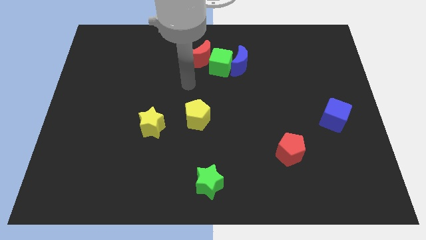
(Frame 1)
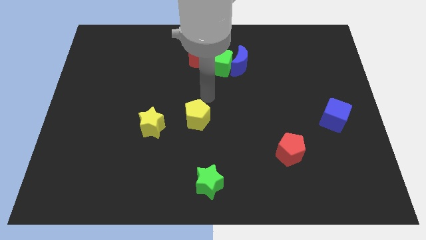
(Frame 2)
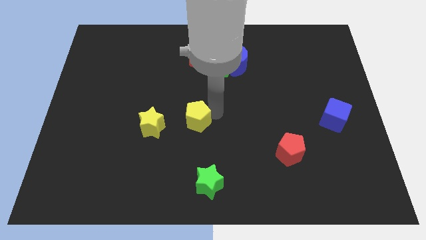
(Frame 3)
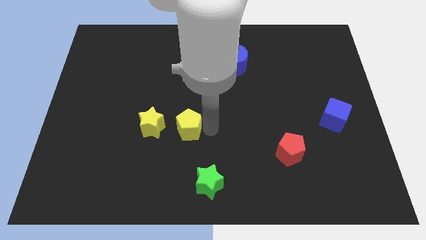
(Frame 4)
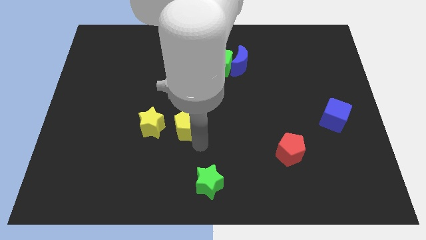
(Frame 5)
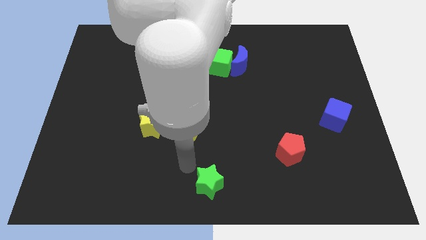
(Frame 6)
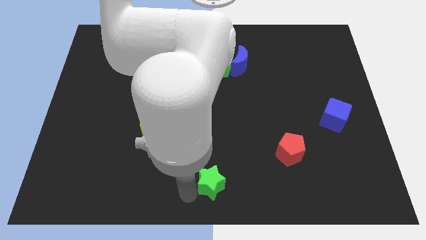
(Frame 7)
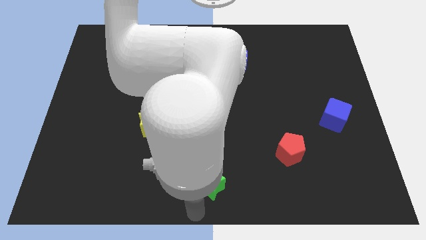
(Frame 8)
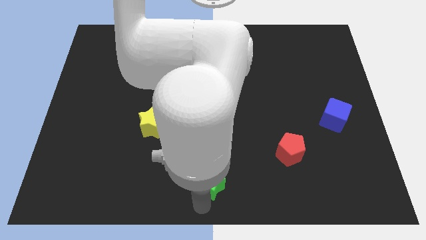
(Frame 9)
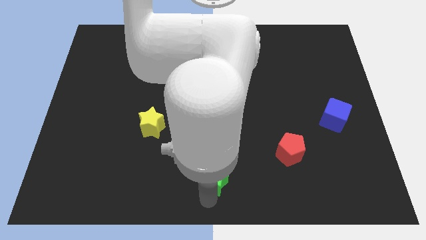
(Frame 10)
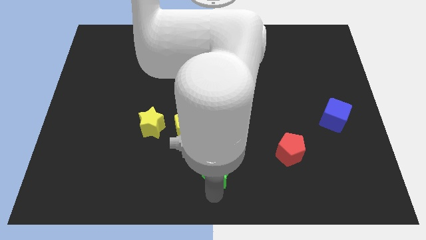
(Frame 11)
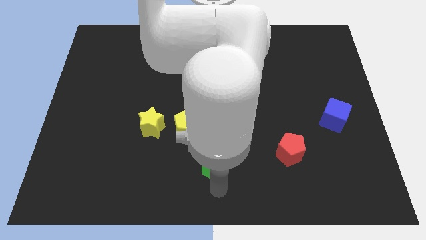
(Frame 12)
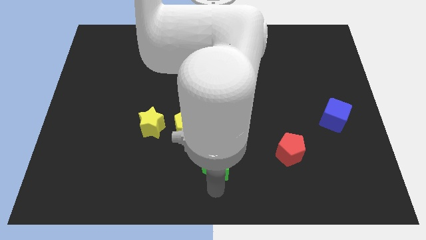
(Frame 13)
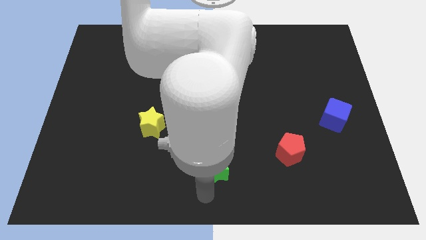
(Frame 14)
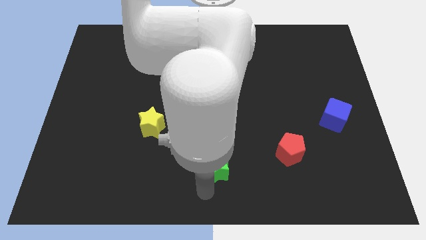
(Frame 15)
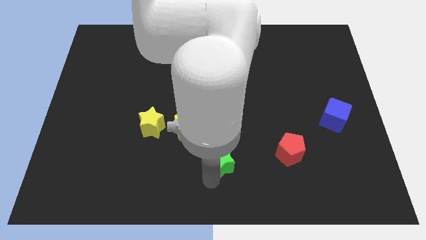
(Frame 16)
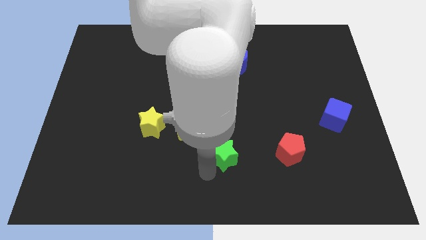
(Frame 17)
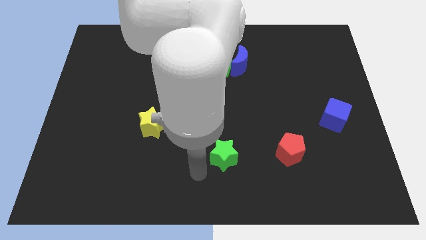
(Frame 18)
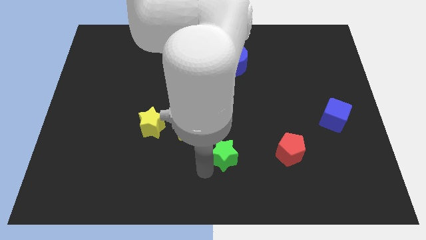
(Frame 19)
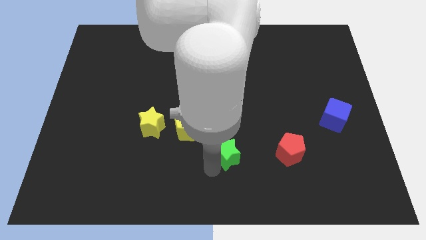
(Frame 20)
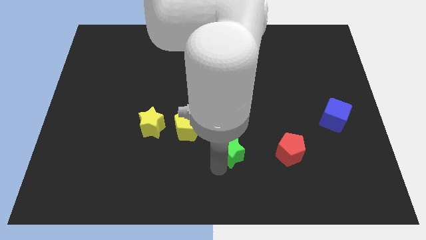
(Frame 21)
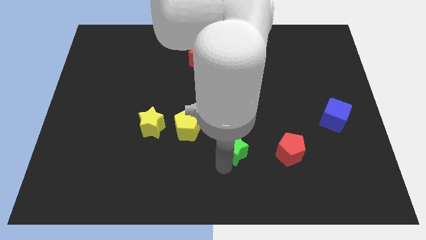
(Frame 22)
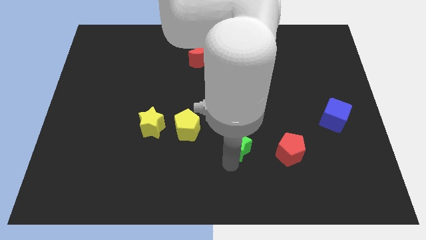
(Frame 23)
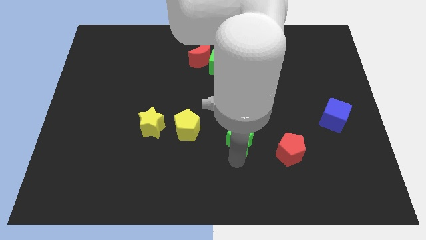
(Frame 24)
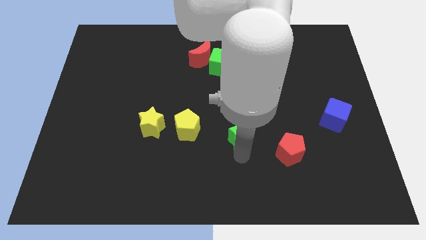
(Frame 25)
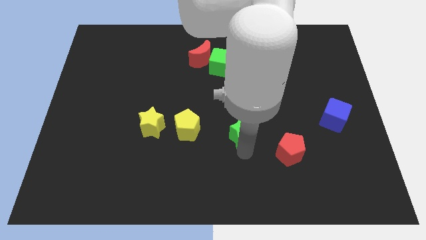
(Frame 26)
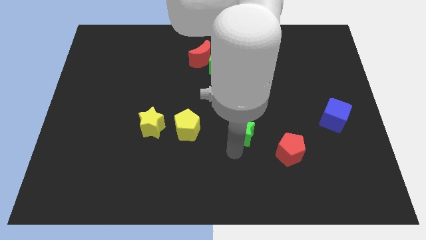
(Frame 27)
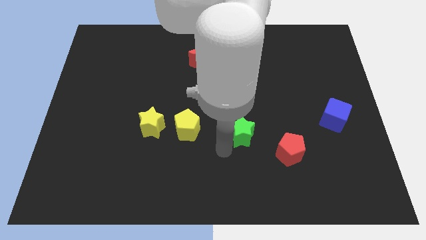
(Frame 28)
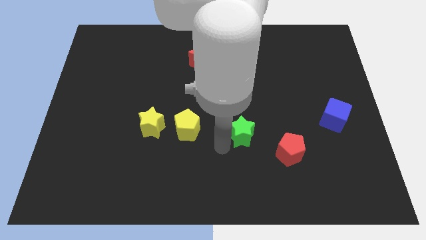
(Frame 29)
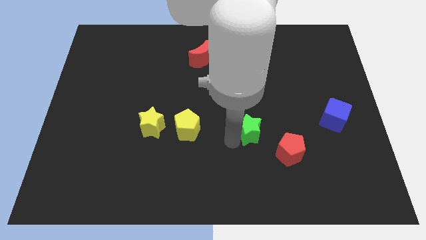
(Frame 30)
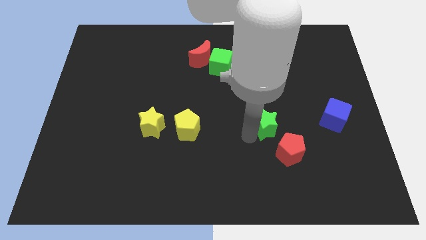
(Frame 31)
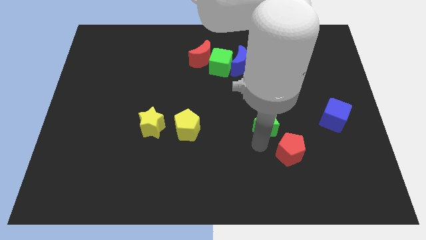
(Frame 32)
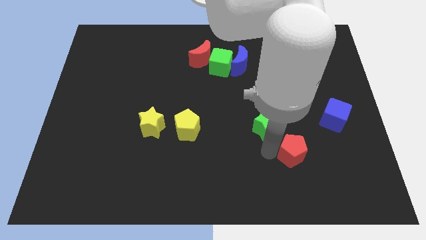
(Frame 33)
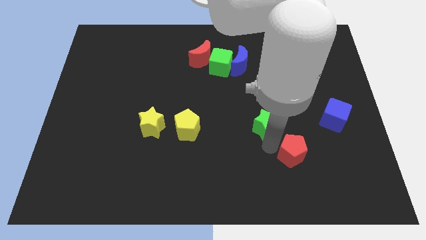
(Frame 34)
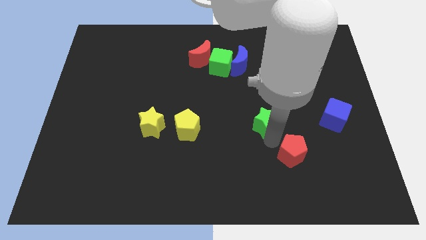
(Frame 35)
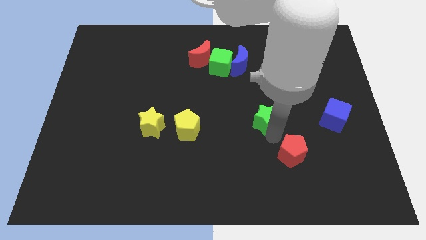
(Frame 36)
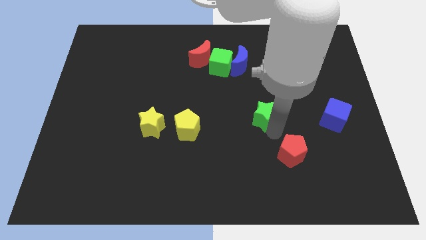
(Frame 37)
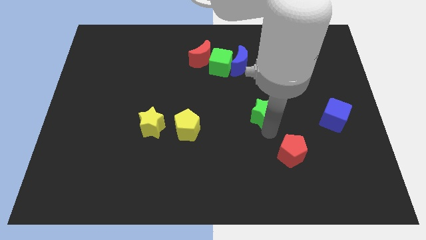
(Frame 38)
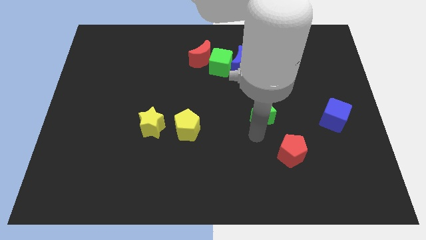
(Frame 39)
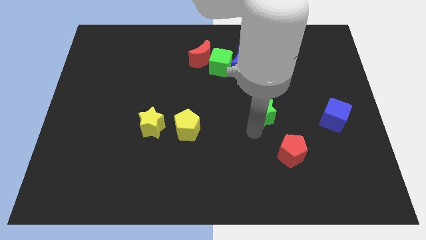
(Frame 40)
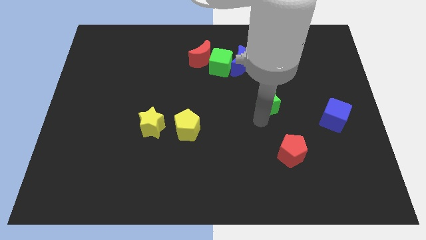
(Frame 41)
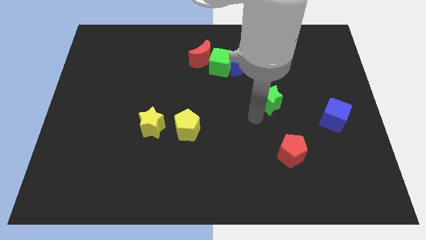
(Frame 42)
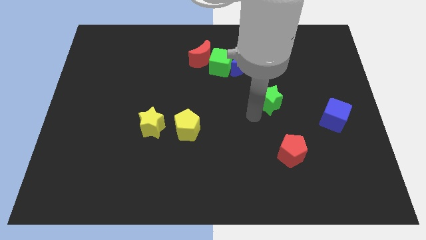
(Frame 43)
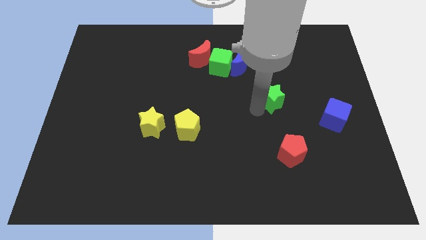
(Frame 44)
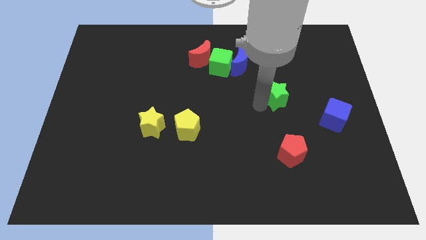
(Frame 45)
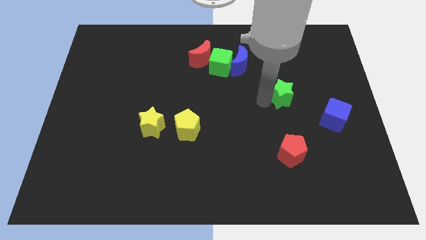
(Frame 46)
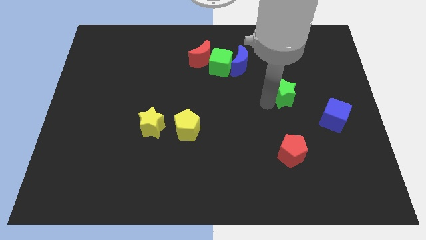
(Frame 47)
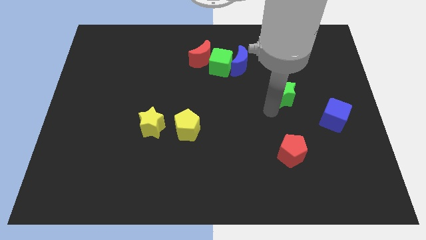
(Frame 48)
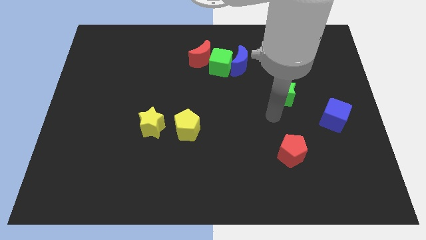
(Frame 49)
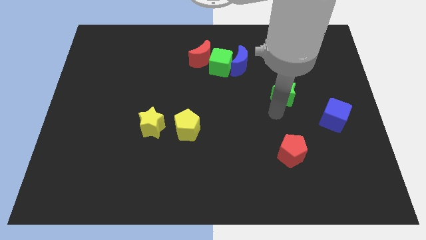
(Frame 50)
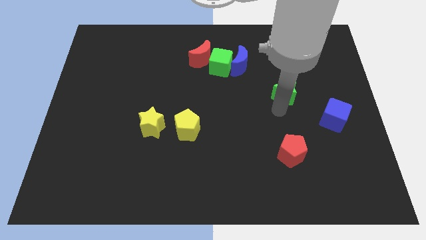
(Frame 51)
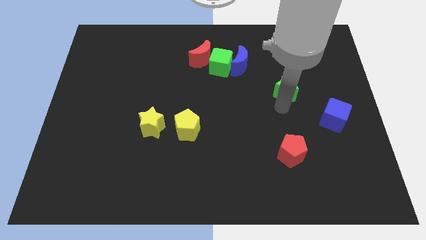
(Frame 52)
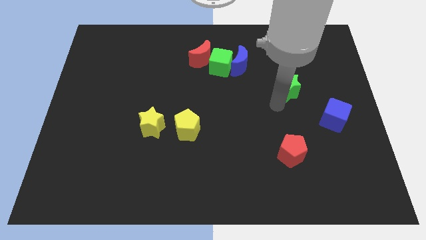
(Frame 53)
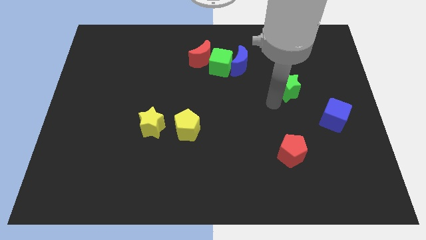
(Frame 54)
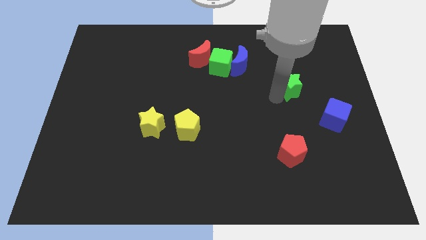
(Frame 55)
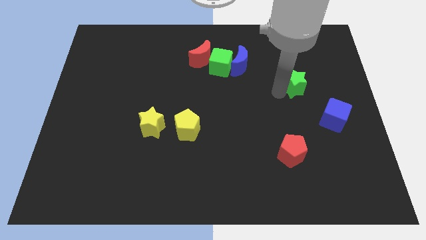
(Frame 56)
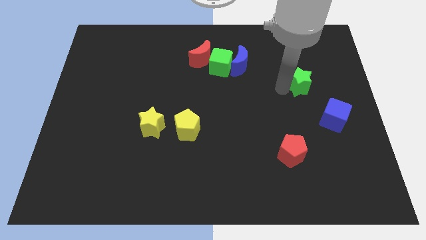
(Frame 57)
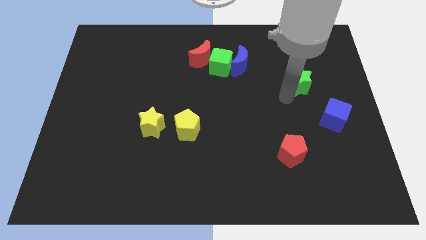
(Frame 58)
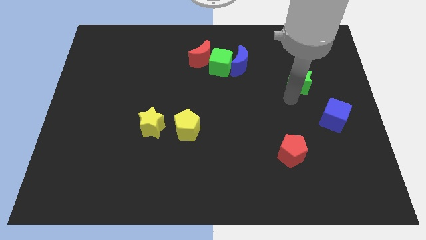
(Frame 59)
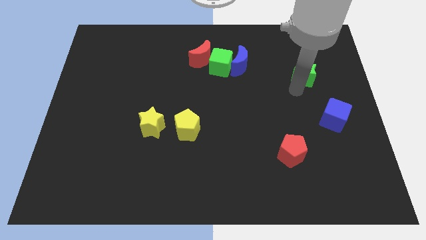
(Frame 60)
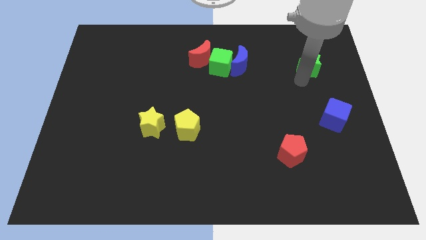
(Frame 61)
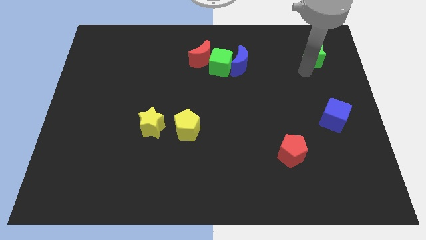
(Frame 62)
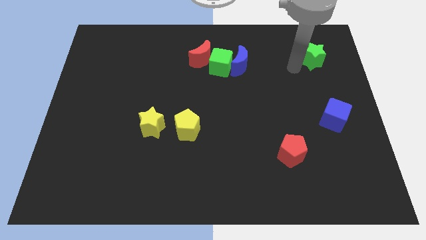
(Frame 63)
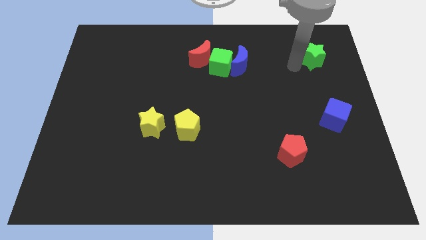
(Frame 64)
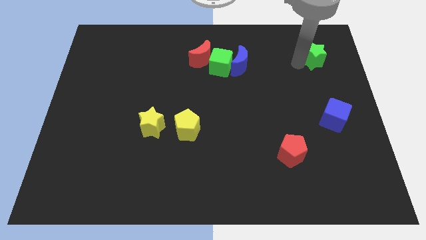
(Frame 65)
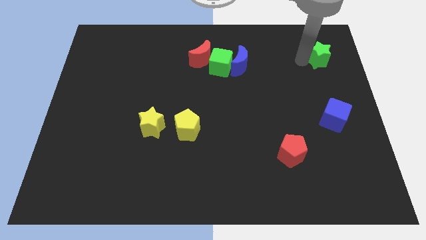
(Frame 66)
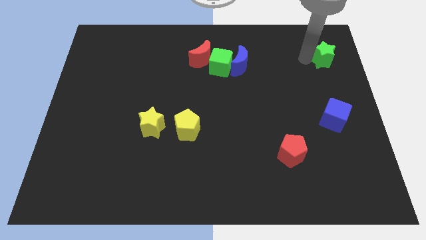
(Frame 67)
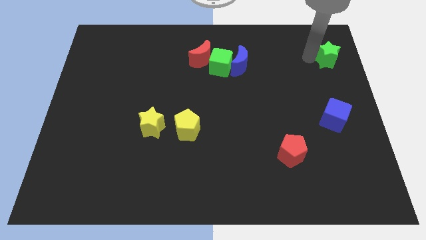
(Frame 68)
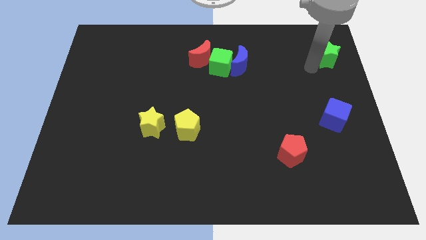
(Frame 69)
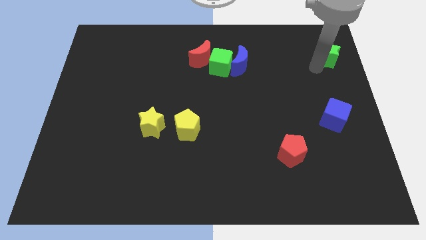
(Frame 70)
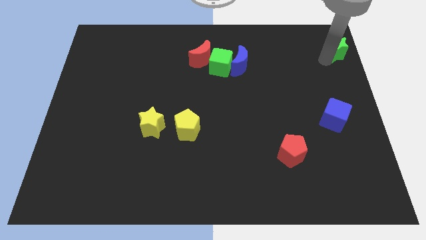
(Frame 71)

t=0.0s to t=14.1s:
put the green star to the upper right corner
